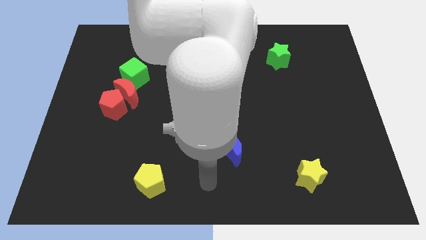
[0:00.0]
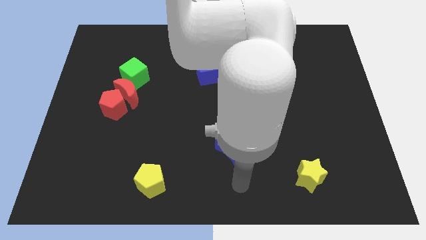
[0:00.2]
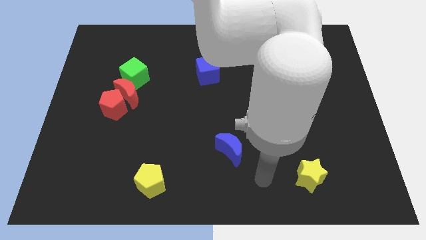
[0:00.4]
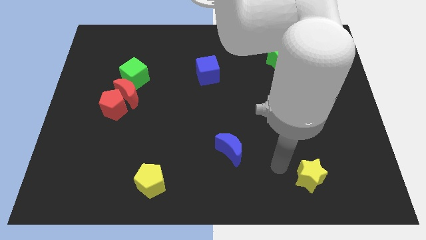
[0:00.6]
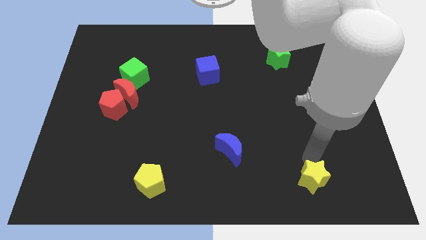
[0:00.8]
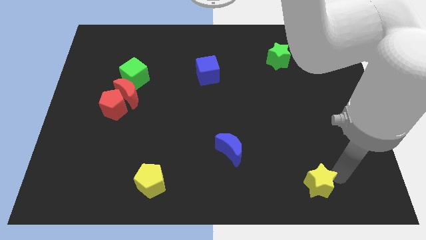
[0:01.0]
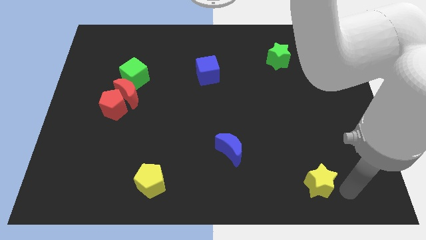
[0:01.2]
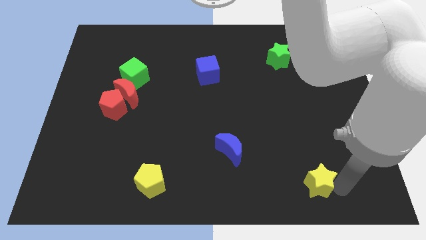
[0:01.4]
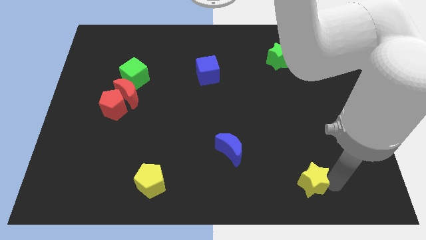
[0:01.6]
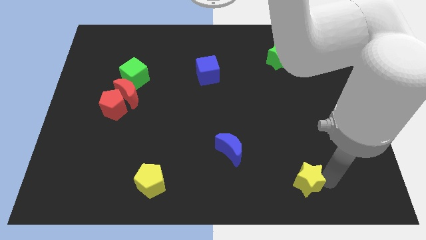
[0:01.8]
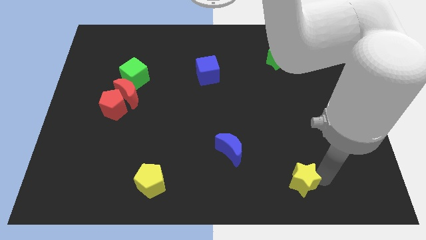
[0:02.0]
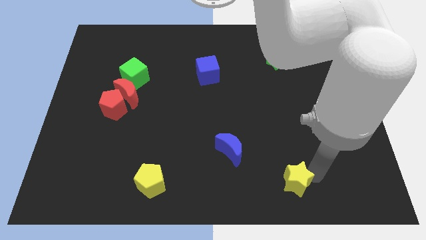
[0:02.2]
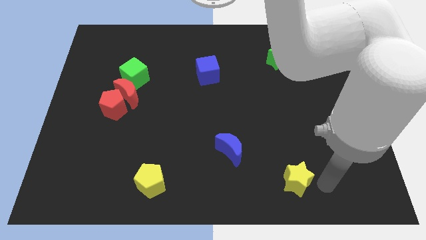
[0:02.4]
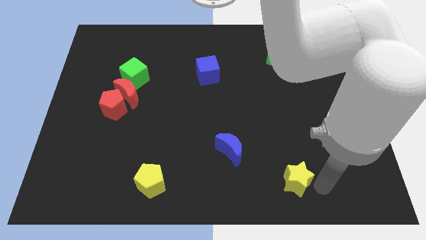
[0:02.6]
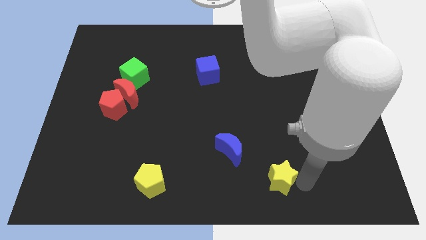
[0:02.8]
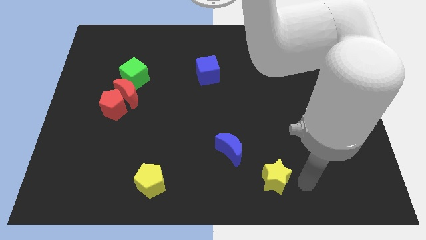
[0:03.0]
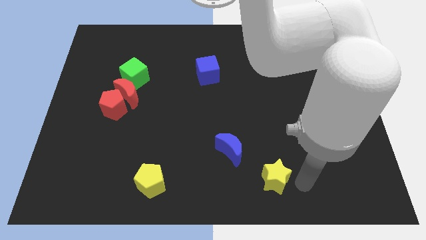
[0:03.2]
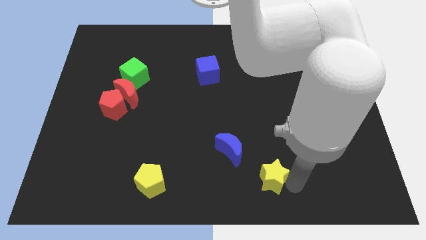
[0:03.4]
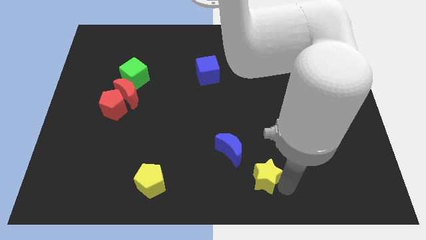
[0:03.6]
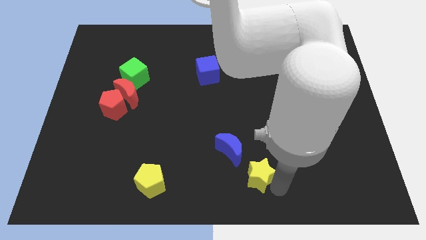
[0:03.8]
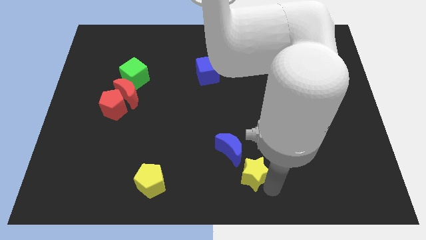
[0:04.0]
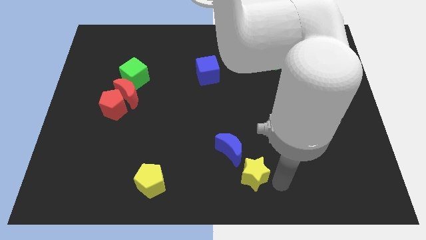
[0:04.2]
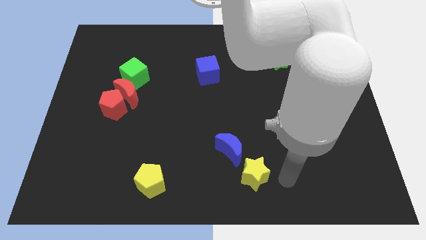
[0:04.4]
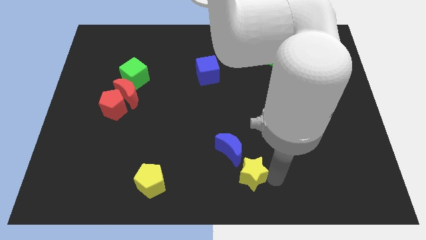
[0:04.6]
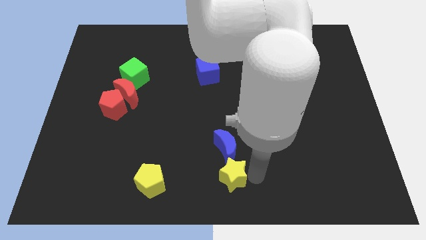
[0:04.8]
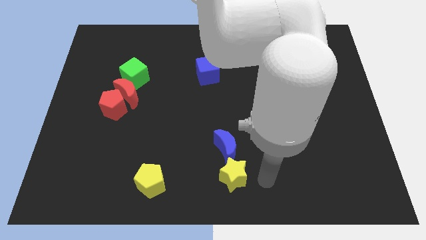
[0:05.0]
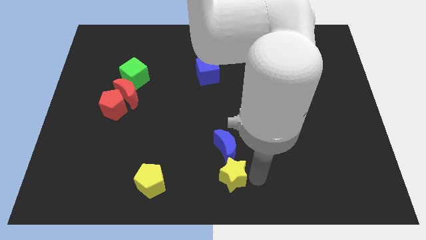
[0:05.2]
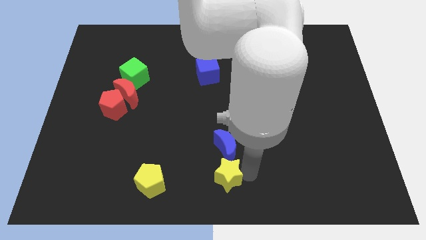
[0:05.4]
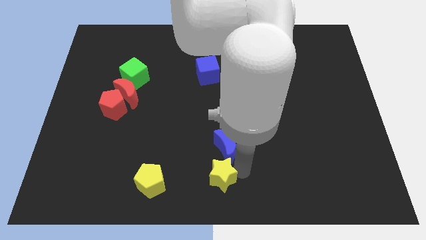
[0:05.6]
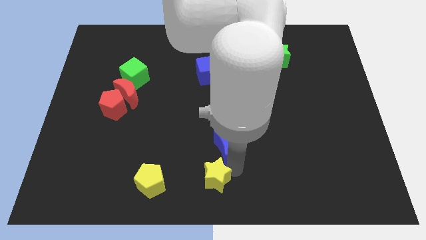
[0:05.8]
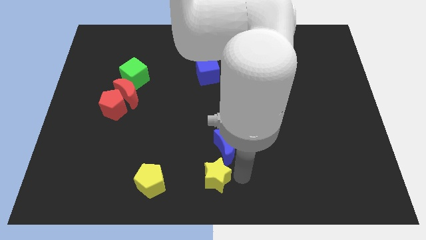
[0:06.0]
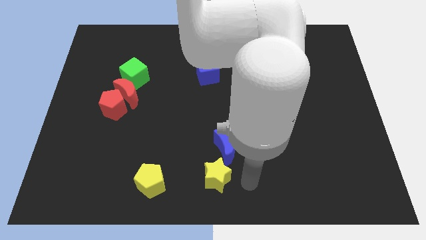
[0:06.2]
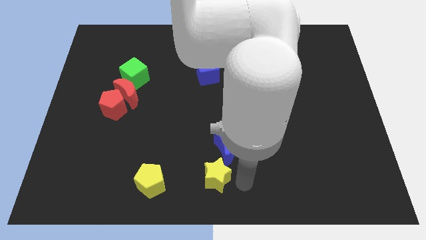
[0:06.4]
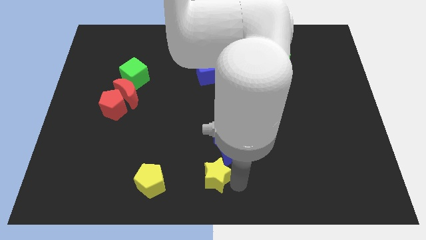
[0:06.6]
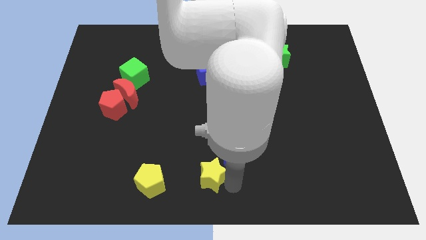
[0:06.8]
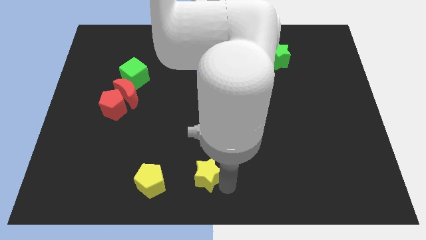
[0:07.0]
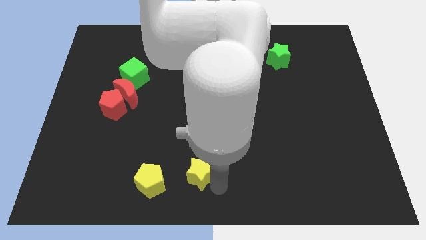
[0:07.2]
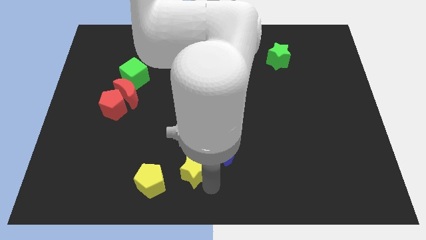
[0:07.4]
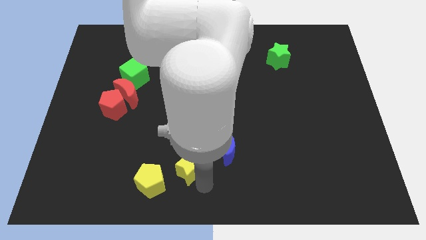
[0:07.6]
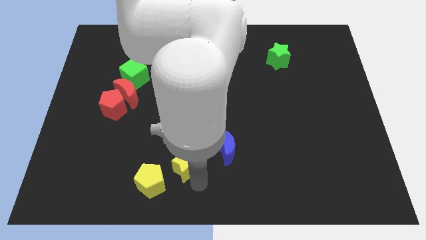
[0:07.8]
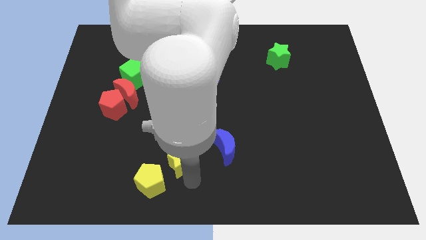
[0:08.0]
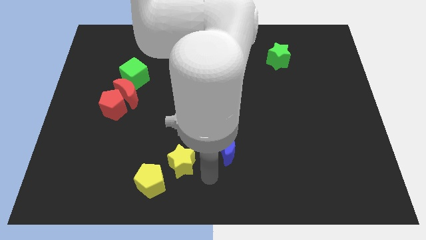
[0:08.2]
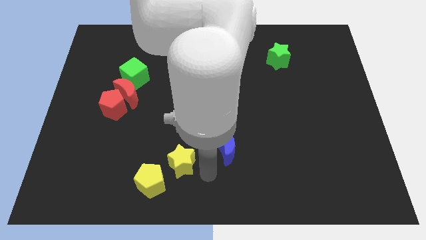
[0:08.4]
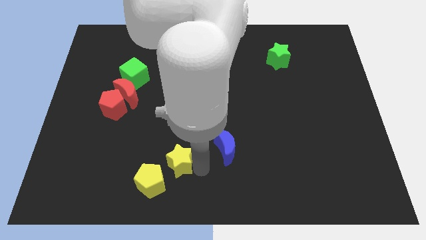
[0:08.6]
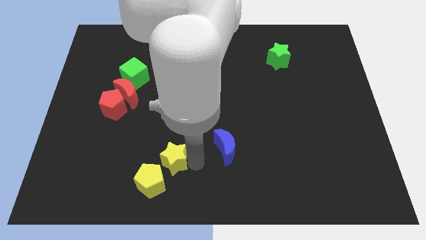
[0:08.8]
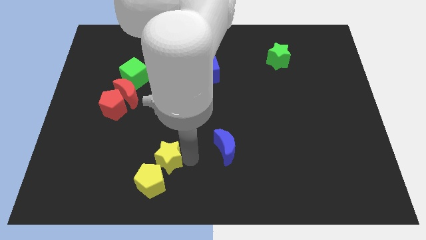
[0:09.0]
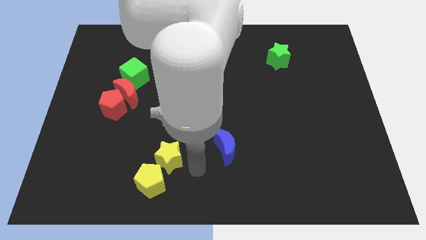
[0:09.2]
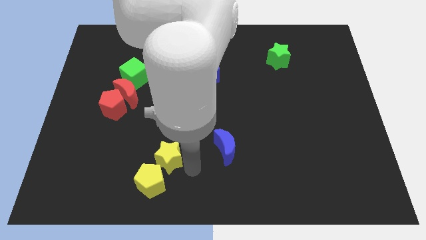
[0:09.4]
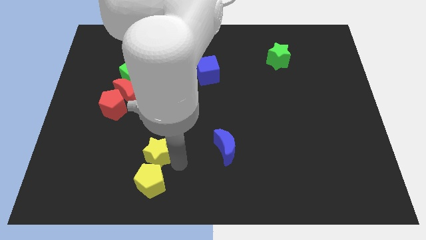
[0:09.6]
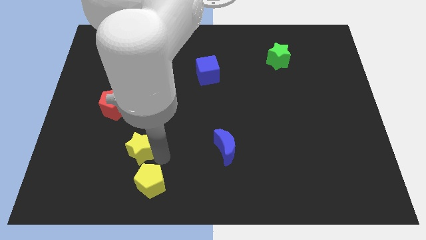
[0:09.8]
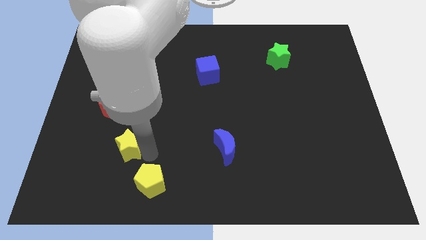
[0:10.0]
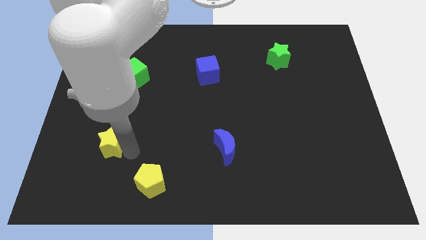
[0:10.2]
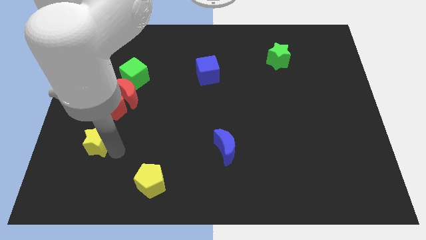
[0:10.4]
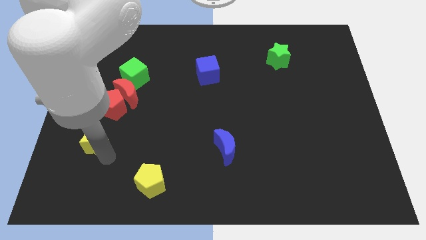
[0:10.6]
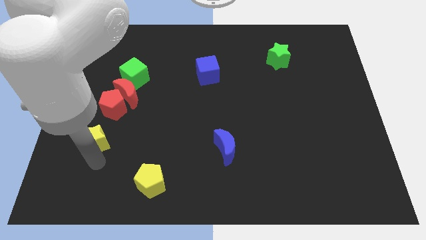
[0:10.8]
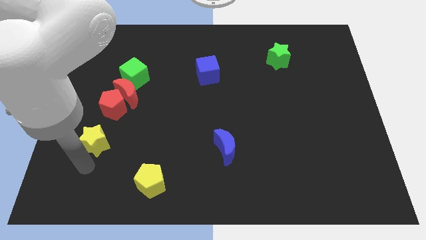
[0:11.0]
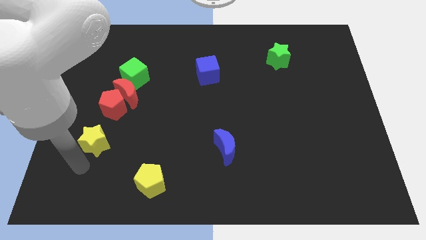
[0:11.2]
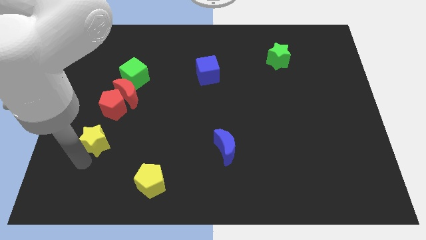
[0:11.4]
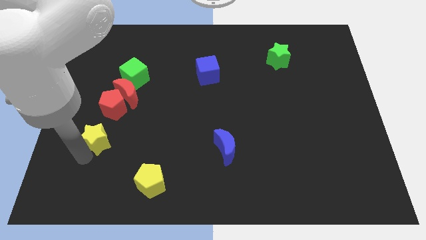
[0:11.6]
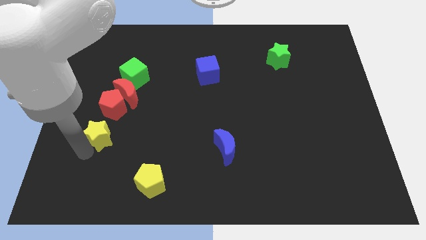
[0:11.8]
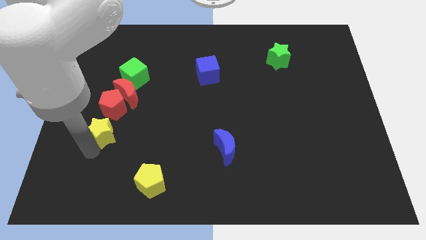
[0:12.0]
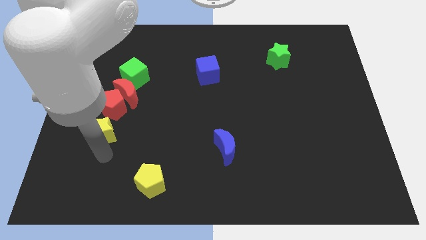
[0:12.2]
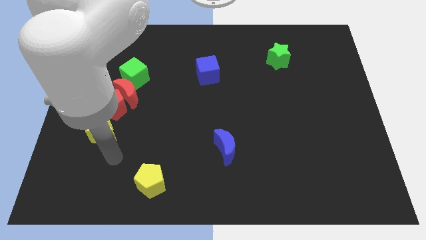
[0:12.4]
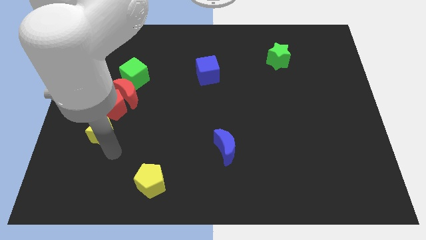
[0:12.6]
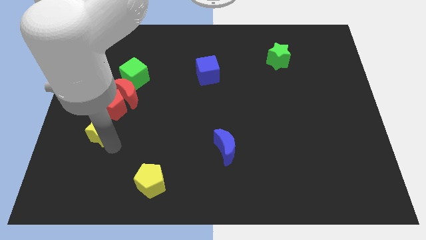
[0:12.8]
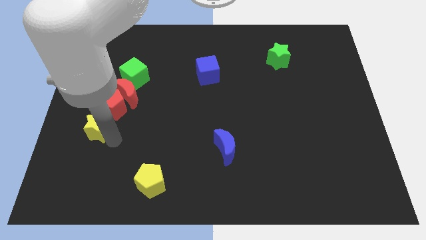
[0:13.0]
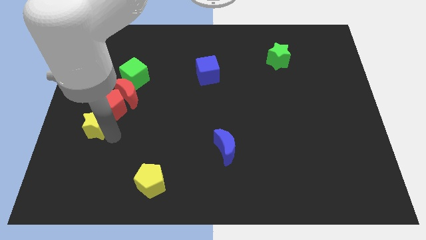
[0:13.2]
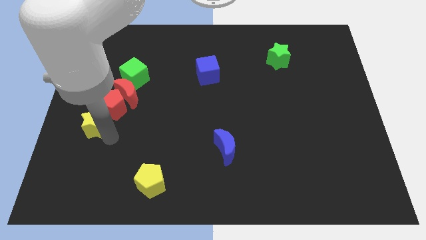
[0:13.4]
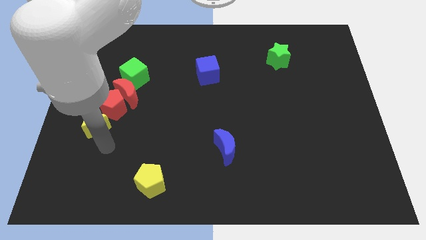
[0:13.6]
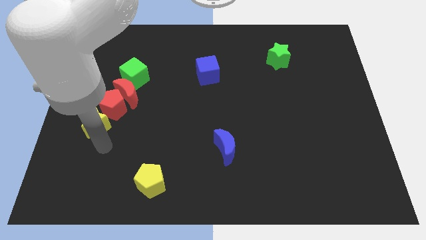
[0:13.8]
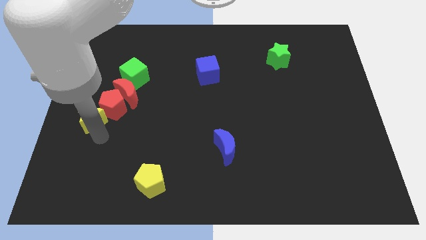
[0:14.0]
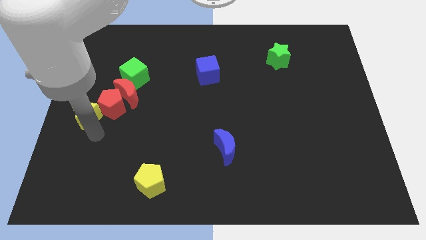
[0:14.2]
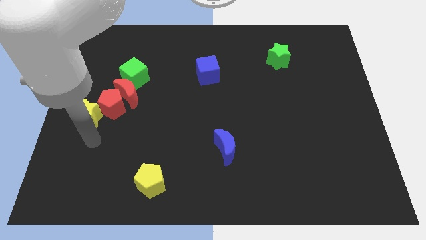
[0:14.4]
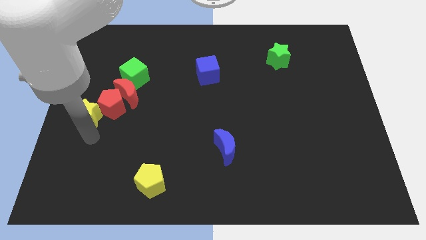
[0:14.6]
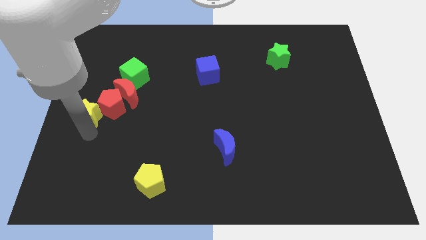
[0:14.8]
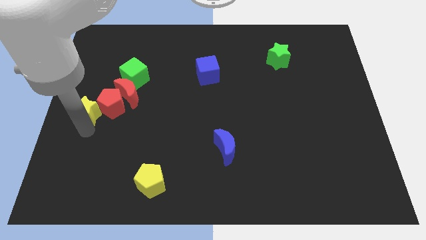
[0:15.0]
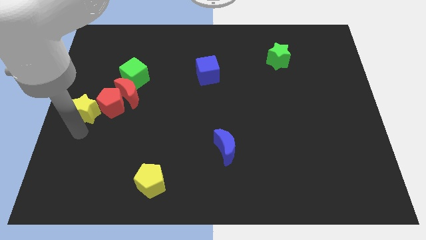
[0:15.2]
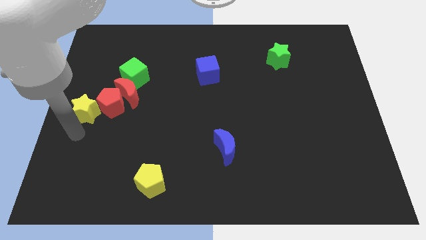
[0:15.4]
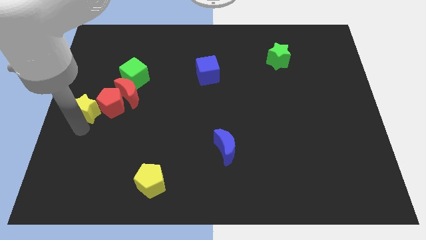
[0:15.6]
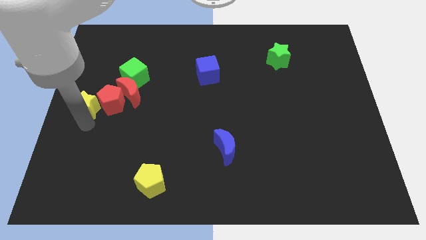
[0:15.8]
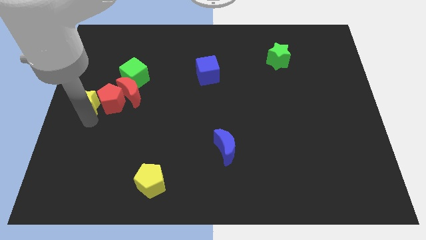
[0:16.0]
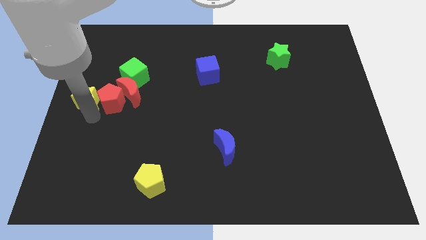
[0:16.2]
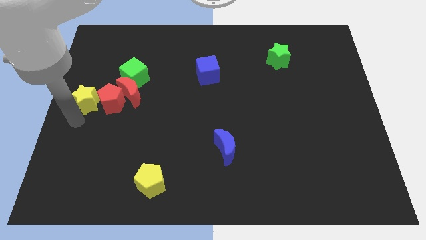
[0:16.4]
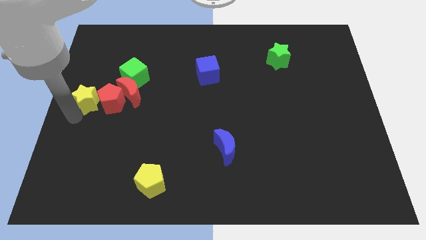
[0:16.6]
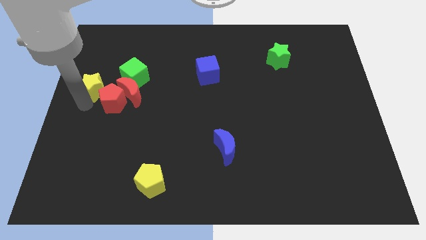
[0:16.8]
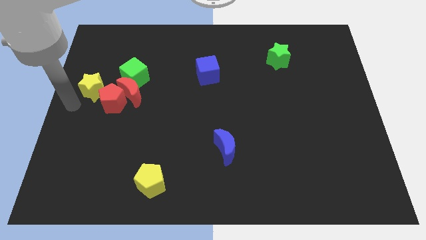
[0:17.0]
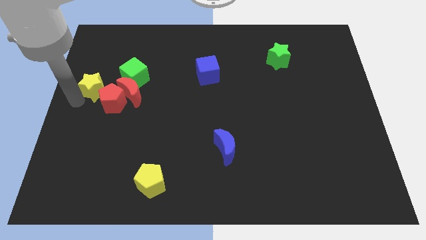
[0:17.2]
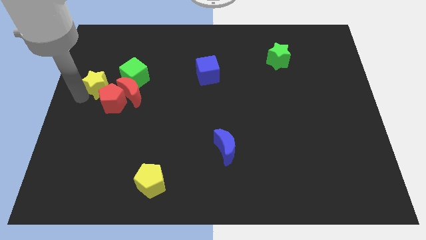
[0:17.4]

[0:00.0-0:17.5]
push the yellow star to the top left side of the red moon
